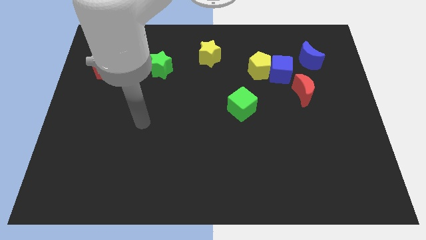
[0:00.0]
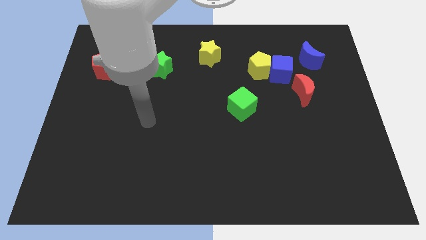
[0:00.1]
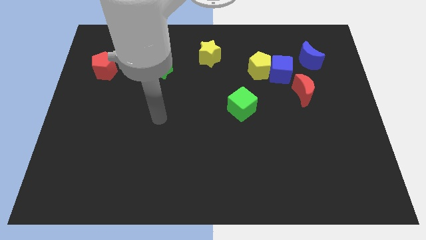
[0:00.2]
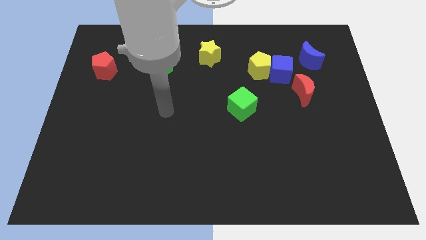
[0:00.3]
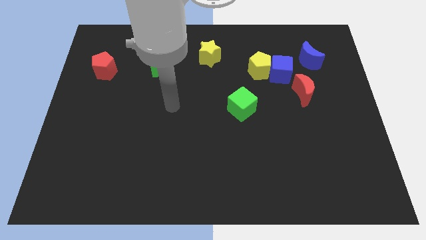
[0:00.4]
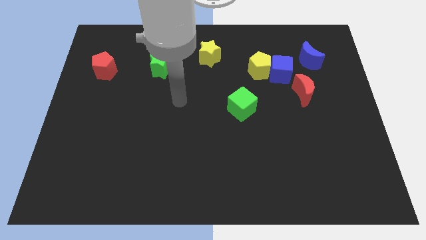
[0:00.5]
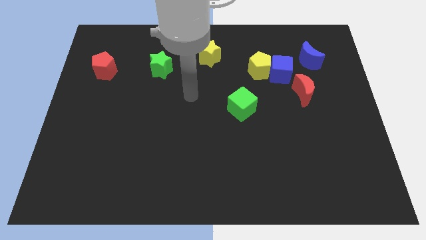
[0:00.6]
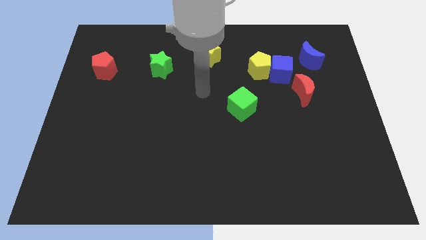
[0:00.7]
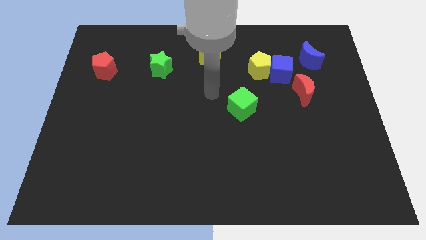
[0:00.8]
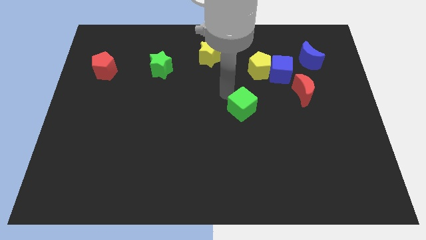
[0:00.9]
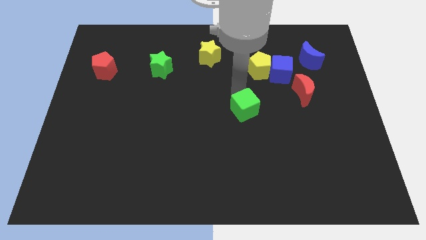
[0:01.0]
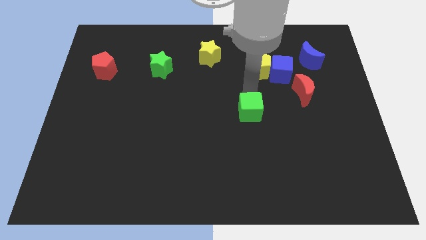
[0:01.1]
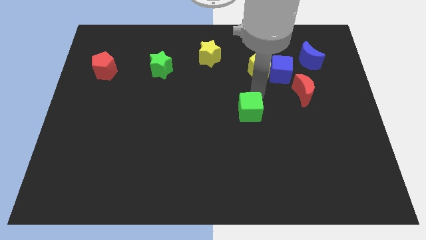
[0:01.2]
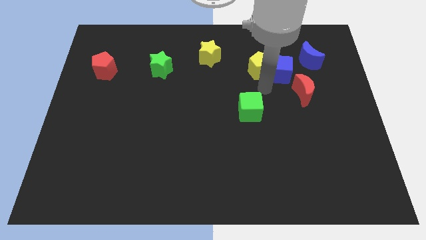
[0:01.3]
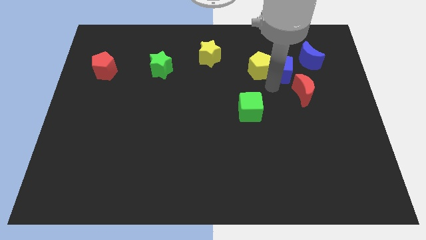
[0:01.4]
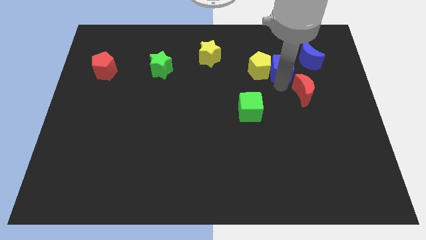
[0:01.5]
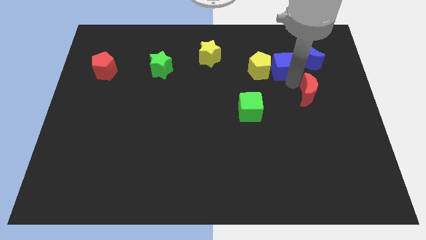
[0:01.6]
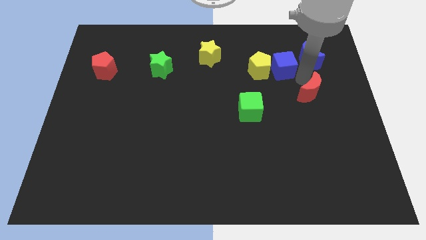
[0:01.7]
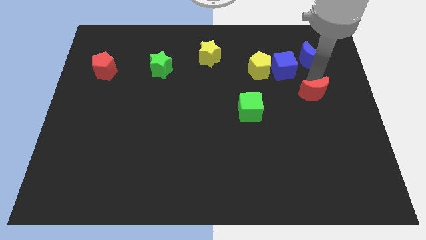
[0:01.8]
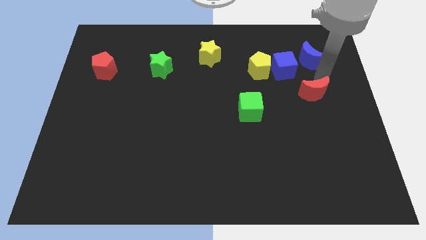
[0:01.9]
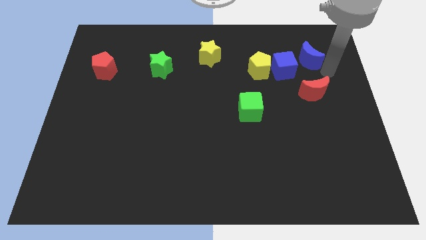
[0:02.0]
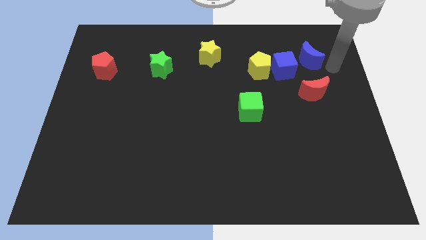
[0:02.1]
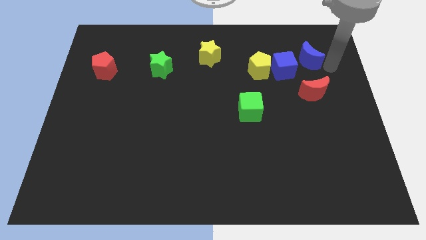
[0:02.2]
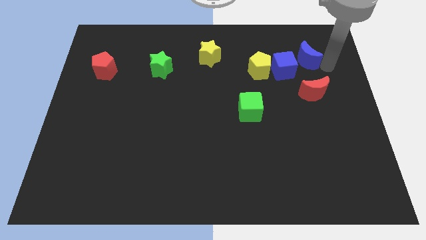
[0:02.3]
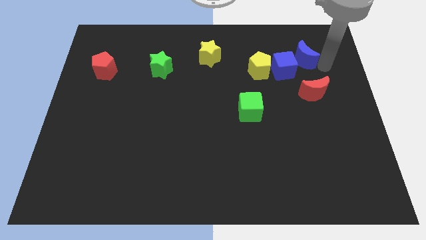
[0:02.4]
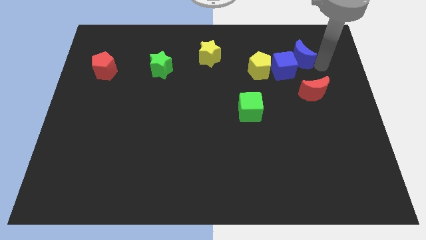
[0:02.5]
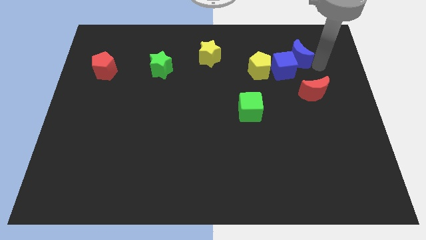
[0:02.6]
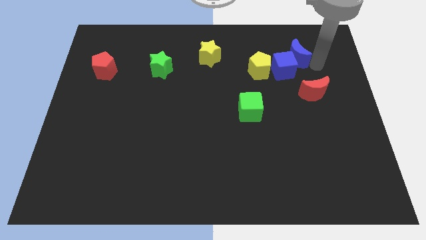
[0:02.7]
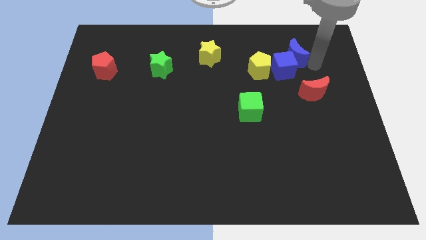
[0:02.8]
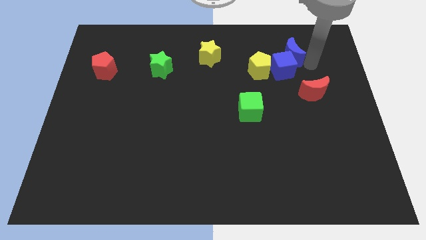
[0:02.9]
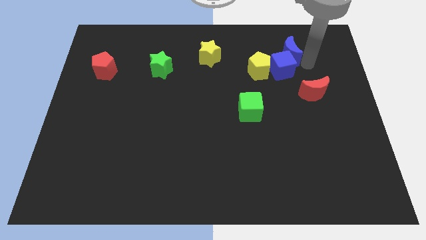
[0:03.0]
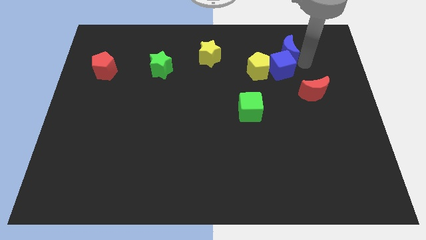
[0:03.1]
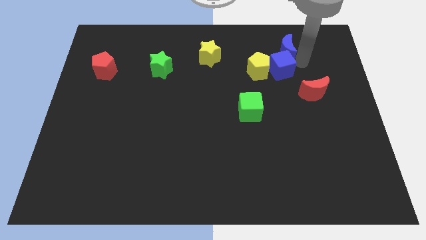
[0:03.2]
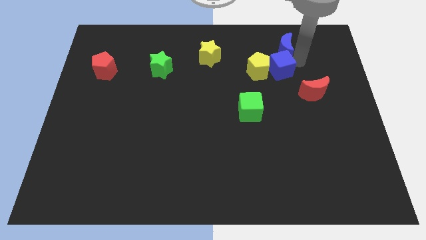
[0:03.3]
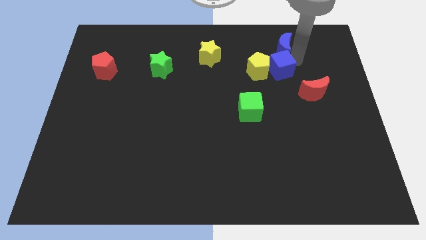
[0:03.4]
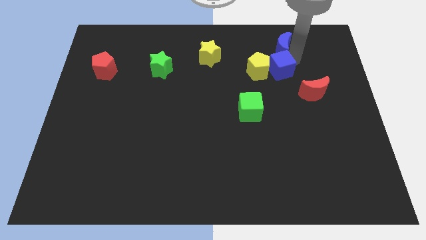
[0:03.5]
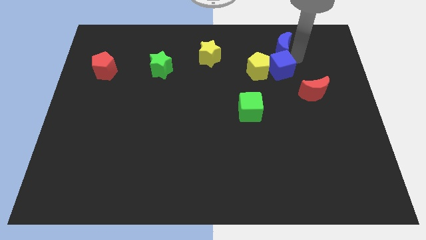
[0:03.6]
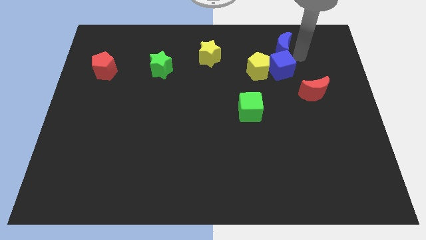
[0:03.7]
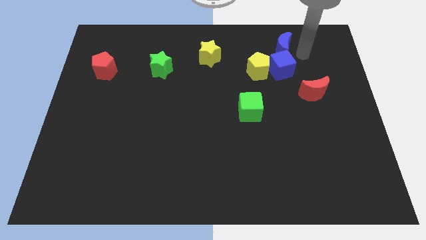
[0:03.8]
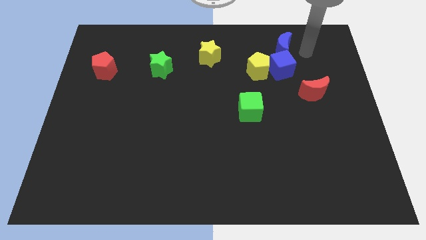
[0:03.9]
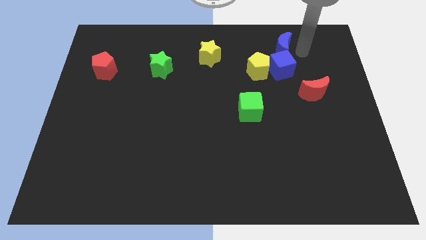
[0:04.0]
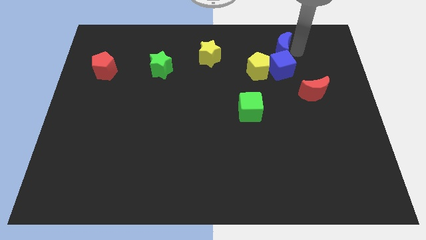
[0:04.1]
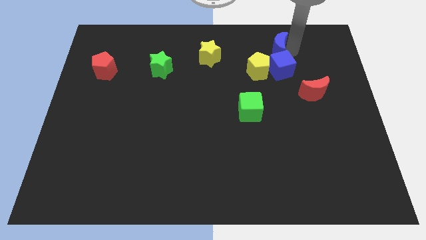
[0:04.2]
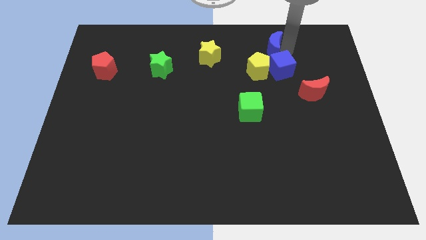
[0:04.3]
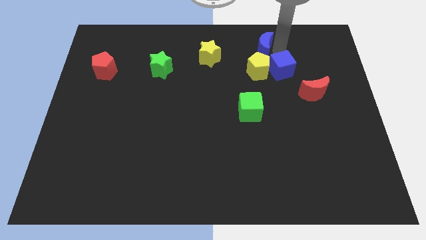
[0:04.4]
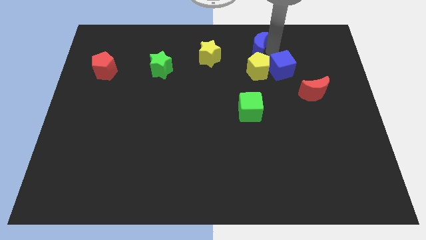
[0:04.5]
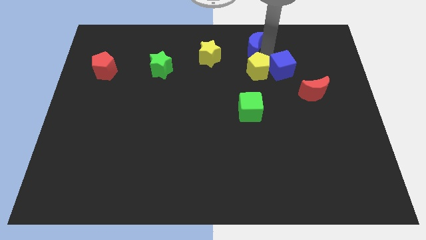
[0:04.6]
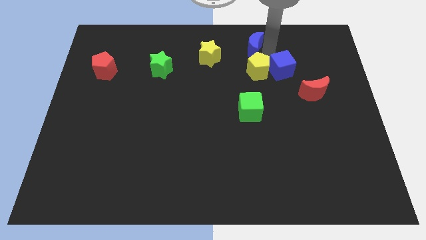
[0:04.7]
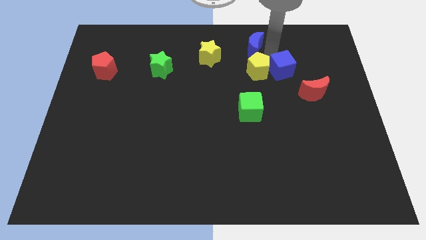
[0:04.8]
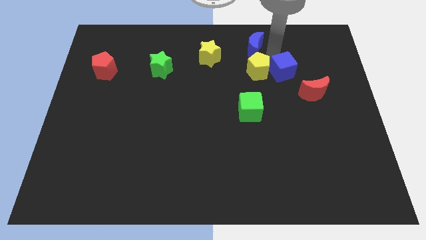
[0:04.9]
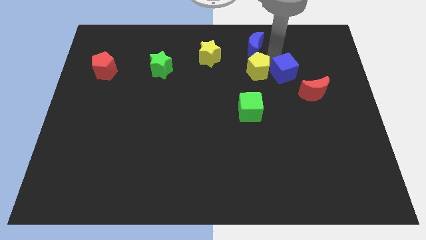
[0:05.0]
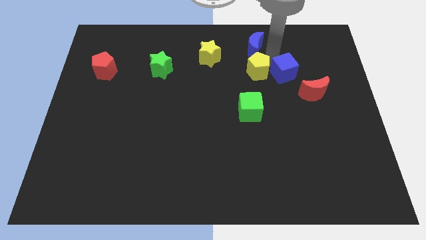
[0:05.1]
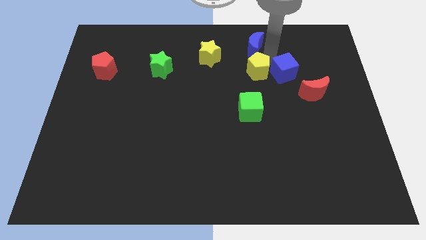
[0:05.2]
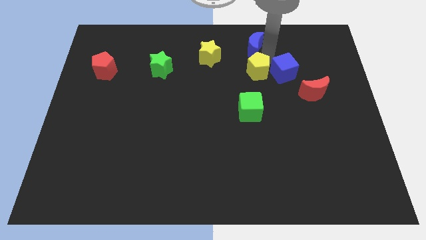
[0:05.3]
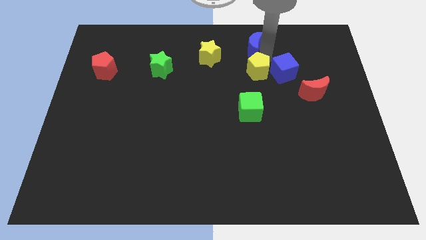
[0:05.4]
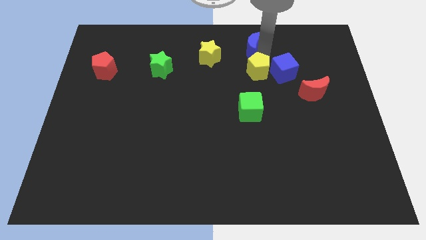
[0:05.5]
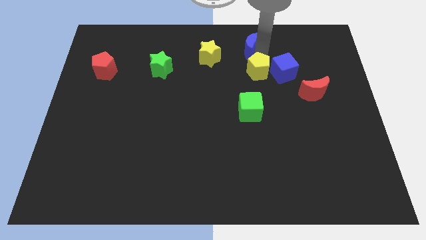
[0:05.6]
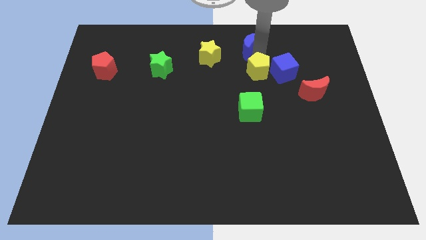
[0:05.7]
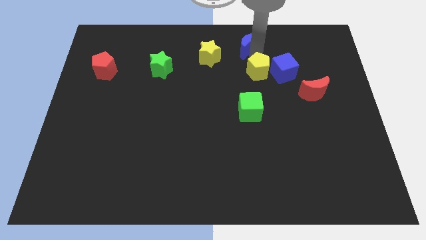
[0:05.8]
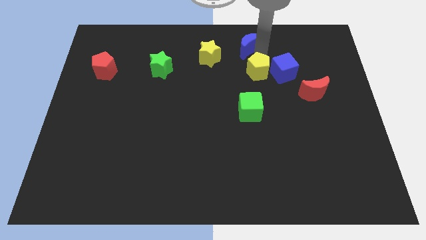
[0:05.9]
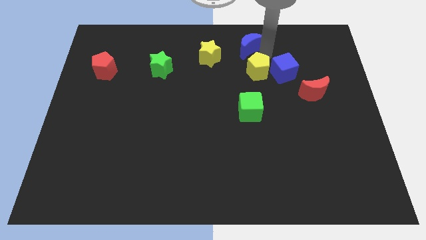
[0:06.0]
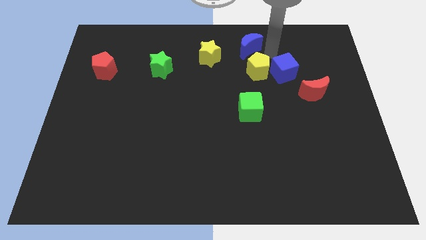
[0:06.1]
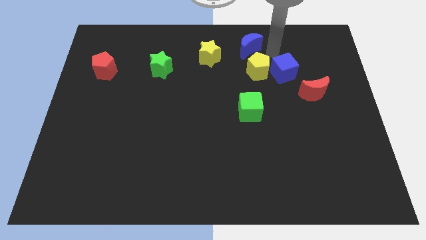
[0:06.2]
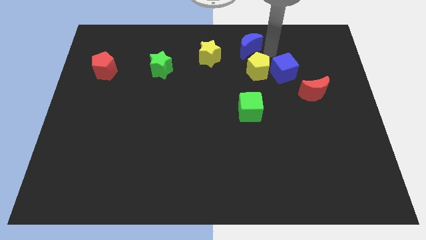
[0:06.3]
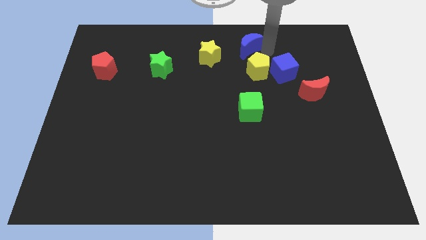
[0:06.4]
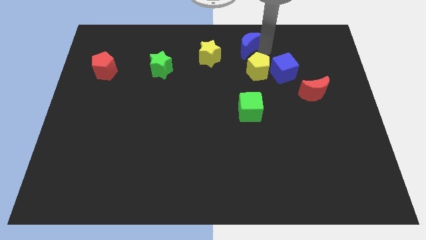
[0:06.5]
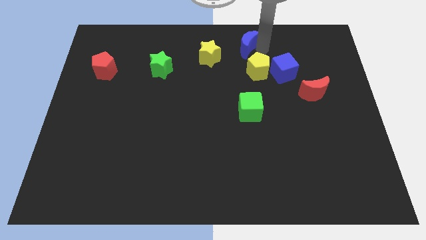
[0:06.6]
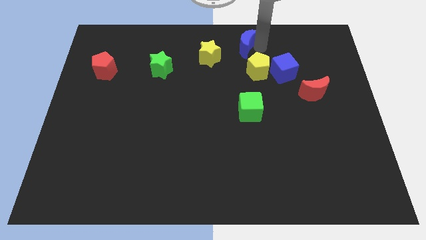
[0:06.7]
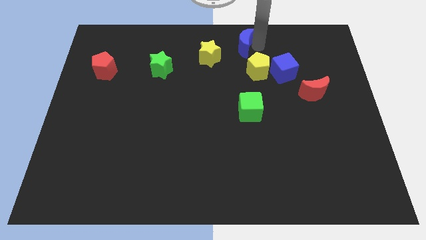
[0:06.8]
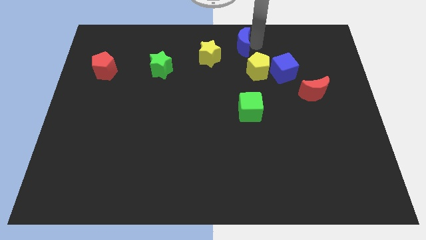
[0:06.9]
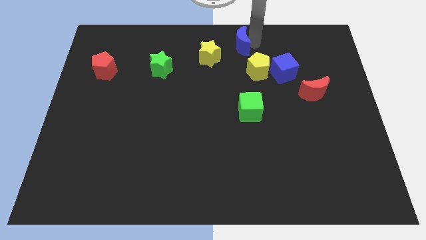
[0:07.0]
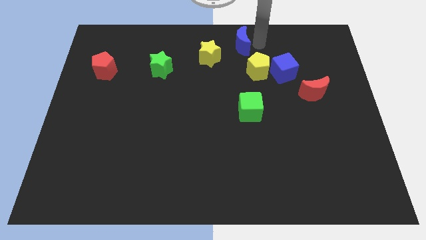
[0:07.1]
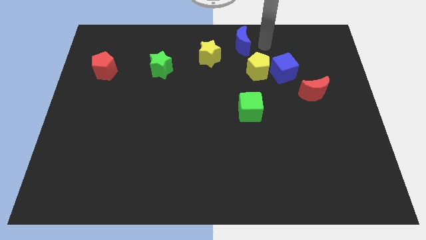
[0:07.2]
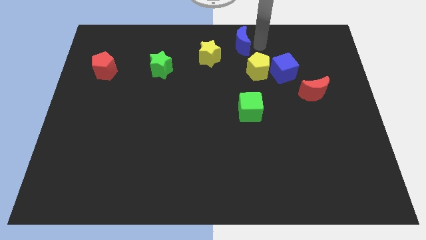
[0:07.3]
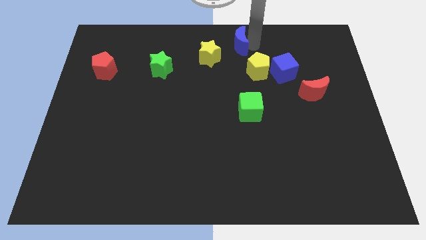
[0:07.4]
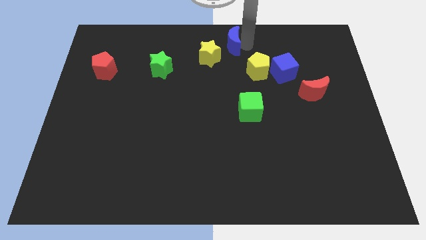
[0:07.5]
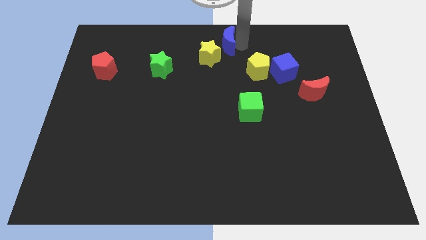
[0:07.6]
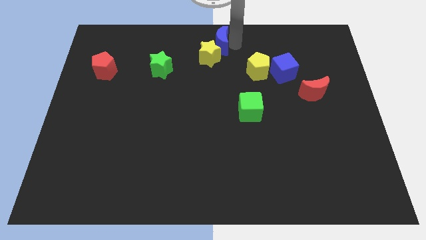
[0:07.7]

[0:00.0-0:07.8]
push the blue moon to the left

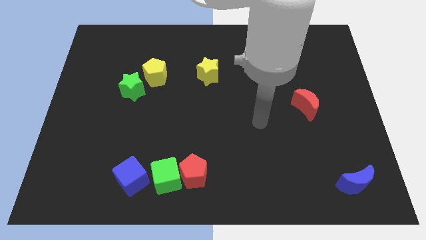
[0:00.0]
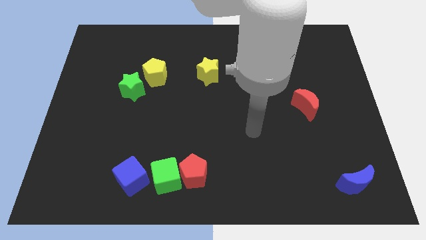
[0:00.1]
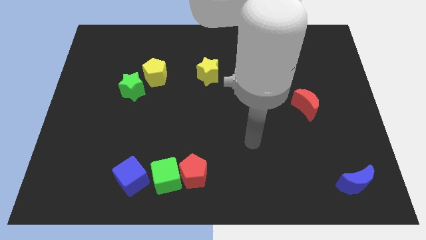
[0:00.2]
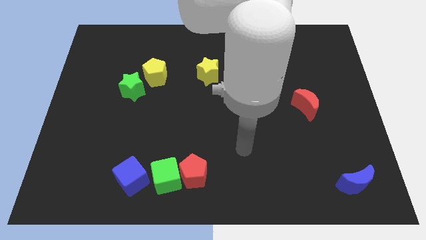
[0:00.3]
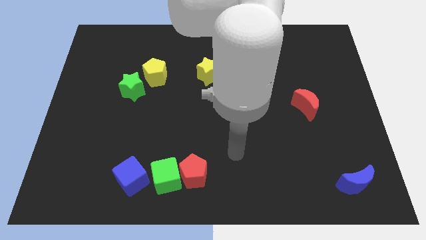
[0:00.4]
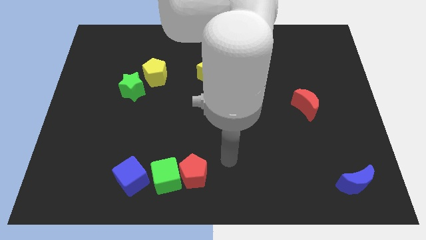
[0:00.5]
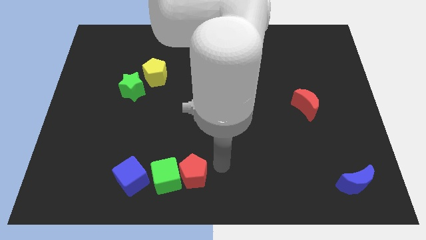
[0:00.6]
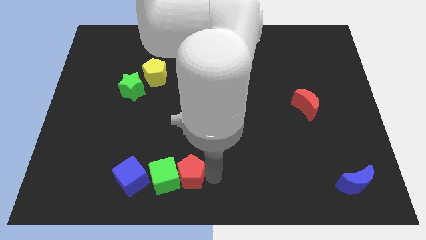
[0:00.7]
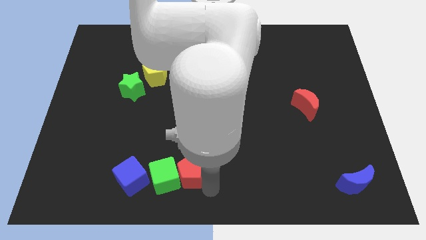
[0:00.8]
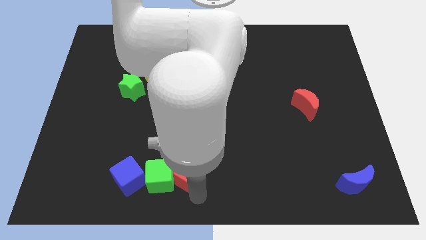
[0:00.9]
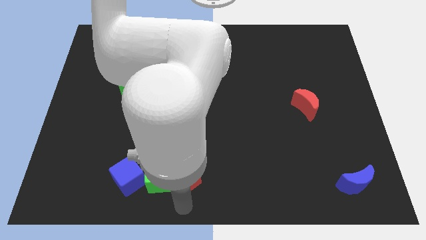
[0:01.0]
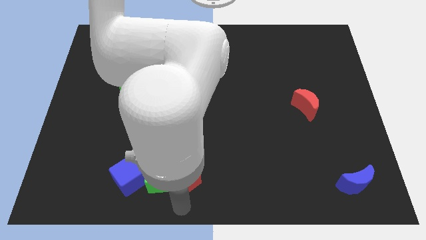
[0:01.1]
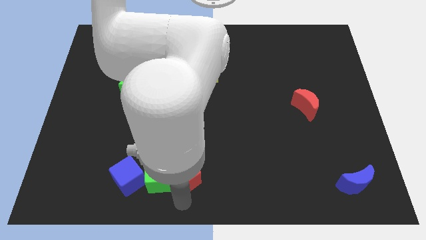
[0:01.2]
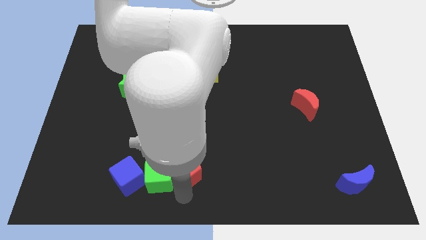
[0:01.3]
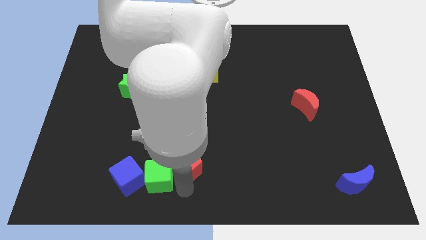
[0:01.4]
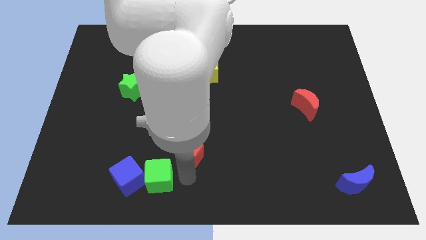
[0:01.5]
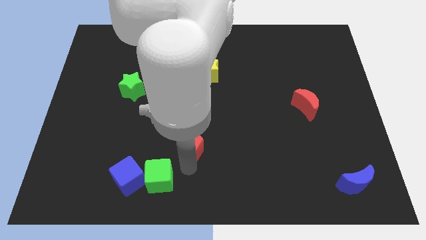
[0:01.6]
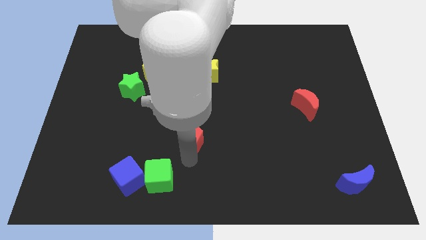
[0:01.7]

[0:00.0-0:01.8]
move the red pentagon a little bit up
